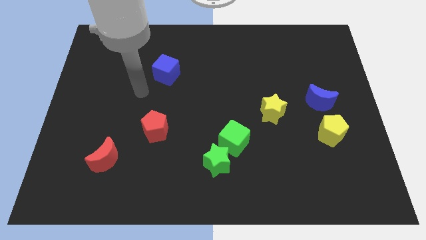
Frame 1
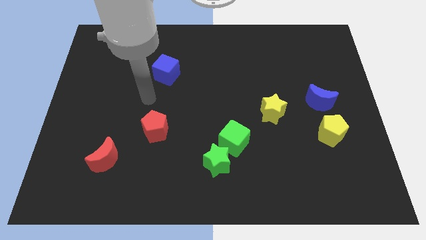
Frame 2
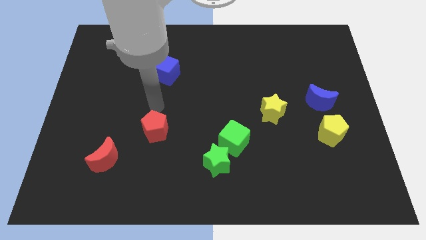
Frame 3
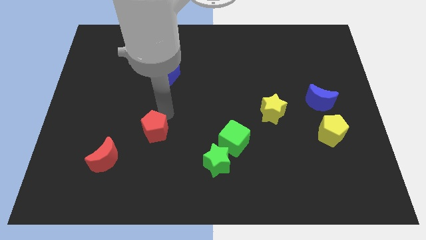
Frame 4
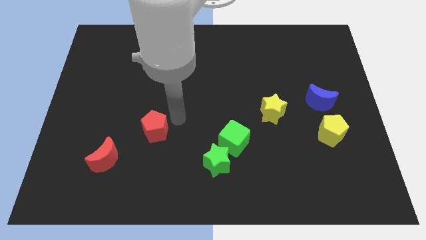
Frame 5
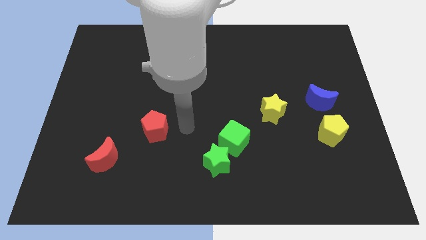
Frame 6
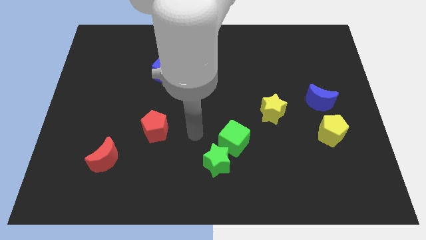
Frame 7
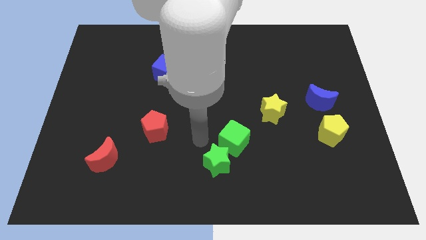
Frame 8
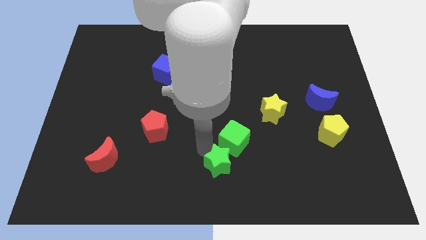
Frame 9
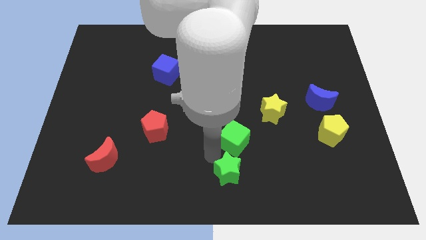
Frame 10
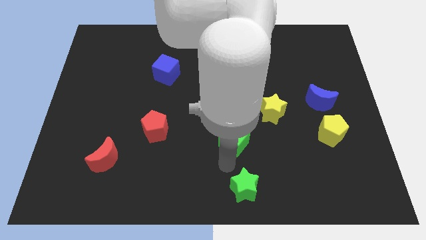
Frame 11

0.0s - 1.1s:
pull the green cube apart from the green star

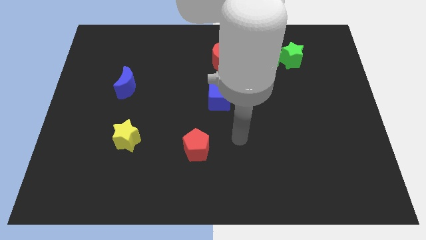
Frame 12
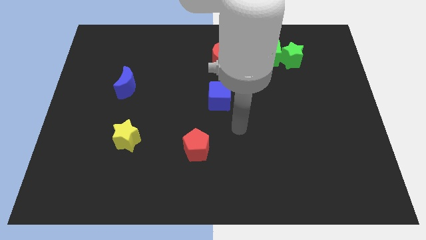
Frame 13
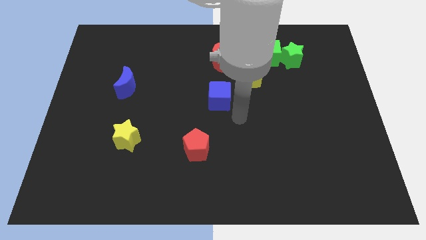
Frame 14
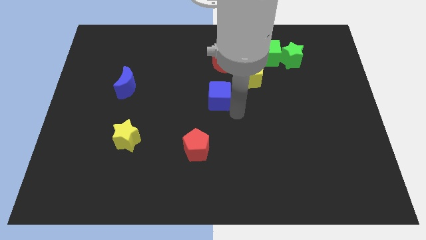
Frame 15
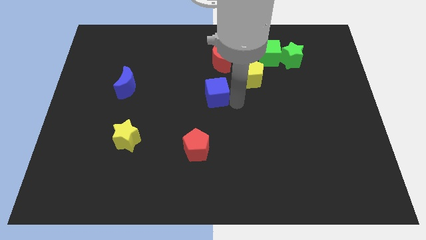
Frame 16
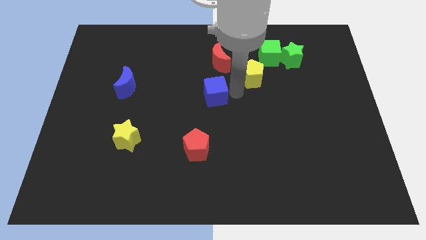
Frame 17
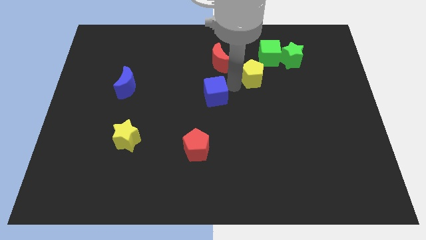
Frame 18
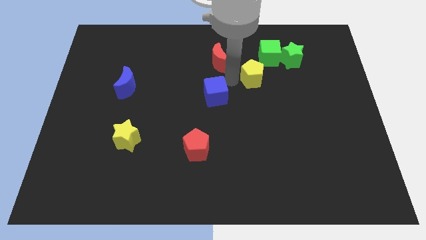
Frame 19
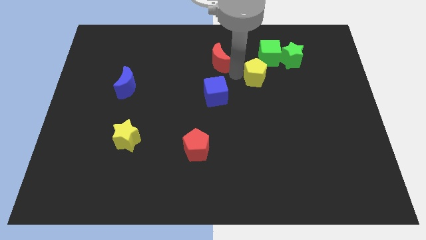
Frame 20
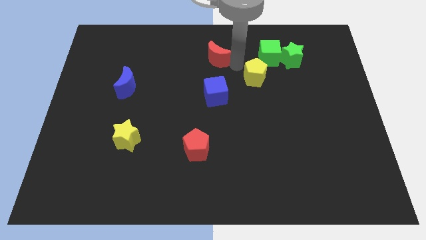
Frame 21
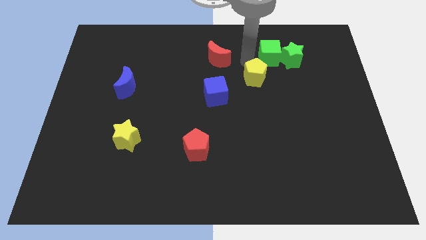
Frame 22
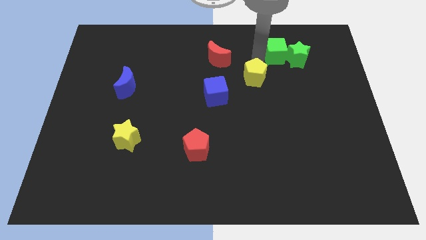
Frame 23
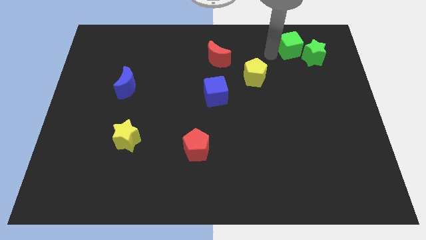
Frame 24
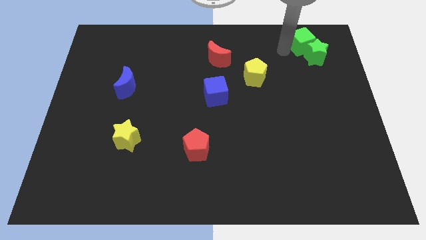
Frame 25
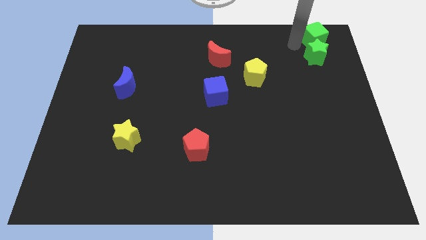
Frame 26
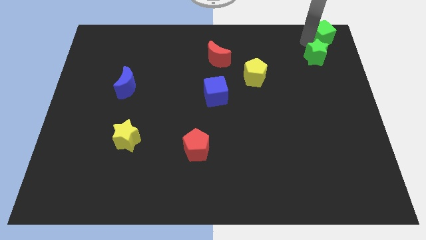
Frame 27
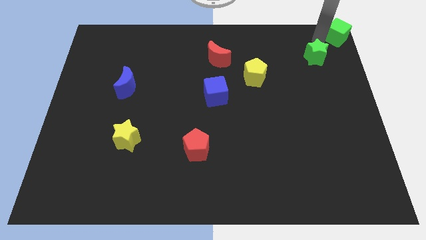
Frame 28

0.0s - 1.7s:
move the green star away from the green cube

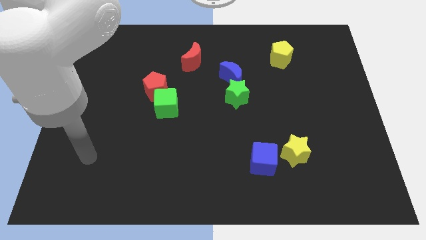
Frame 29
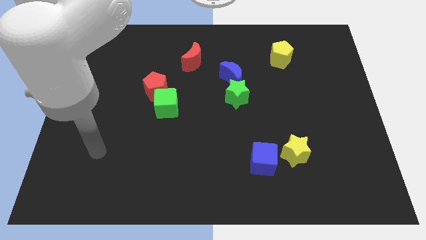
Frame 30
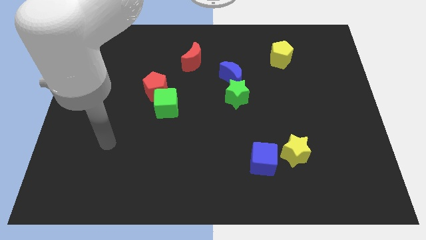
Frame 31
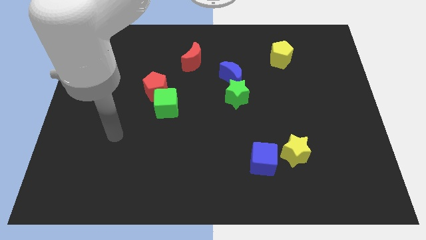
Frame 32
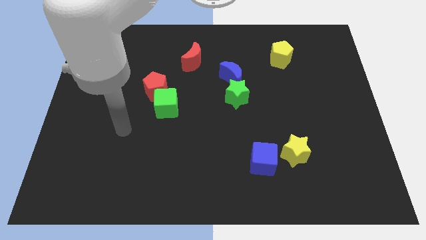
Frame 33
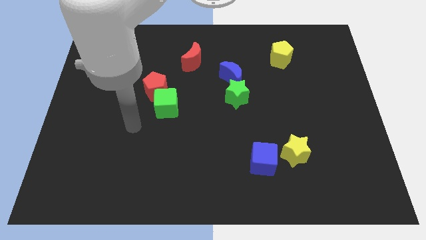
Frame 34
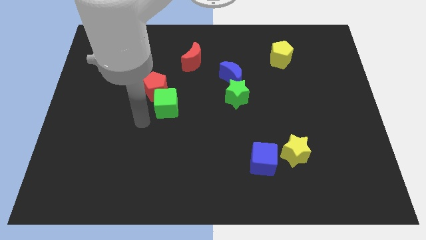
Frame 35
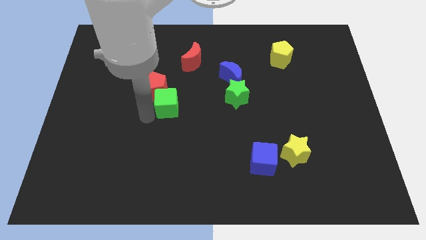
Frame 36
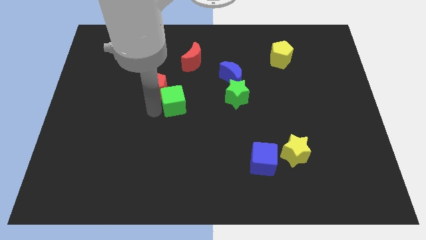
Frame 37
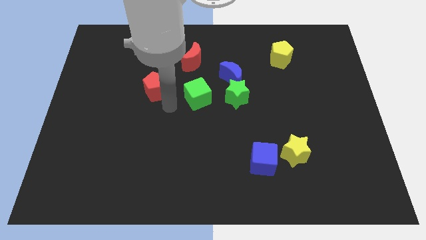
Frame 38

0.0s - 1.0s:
separate the red pentagon from the green cube

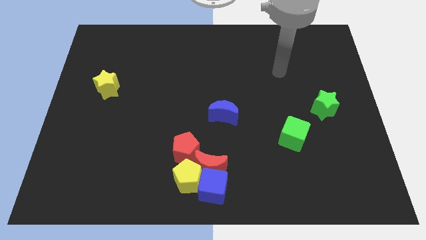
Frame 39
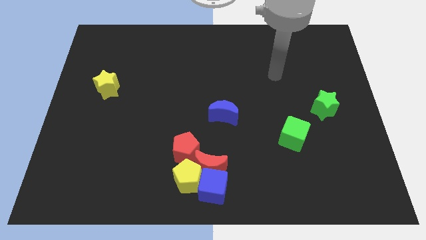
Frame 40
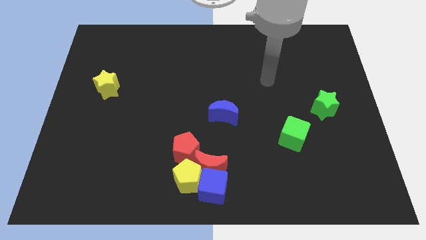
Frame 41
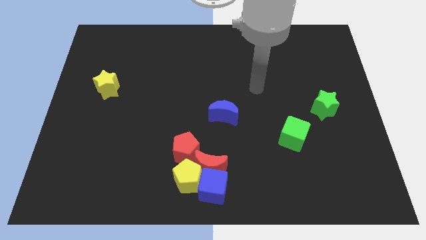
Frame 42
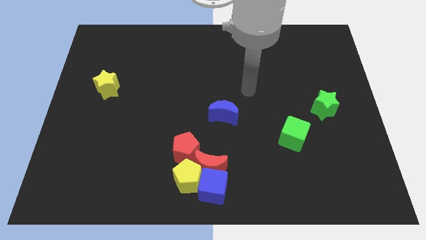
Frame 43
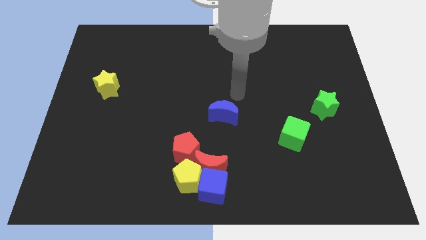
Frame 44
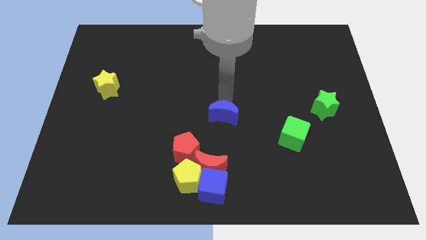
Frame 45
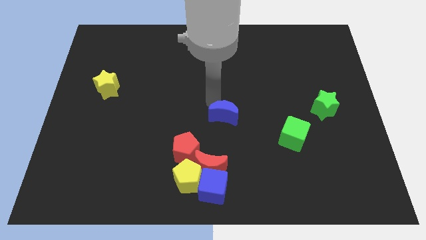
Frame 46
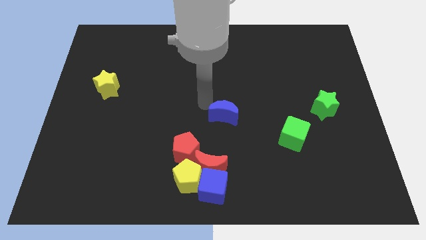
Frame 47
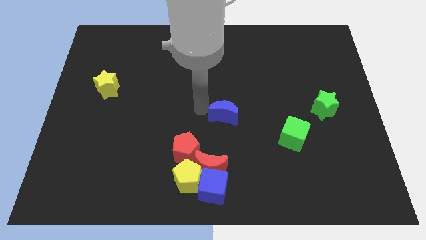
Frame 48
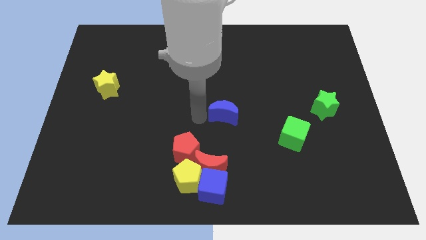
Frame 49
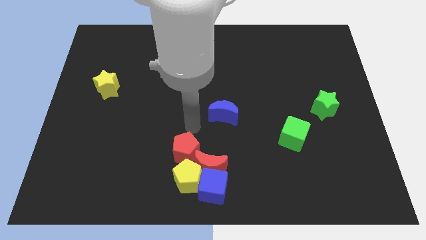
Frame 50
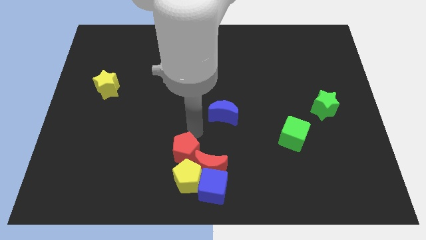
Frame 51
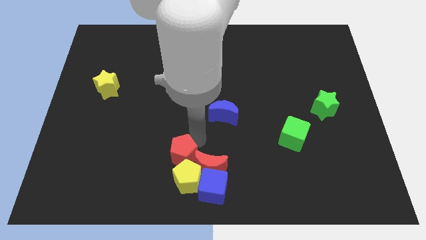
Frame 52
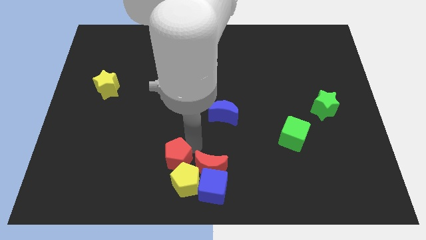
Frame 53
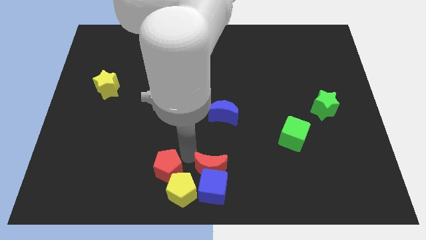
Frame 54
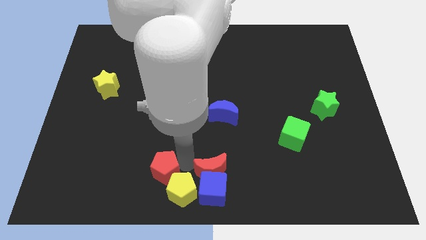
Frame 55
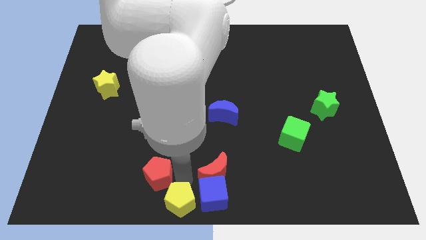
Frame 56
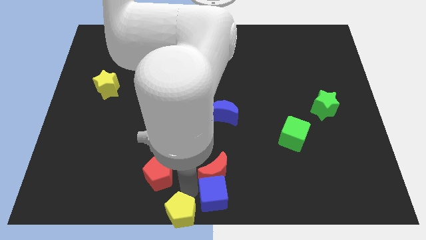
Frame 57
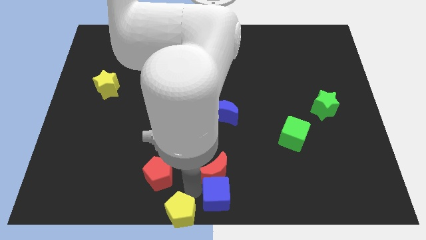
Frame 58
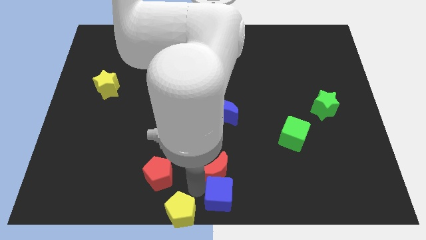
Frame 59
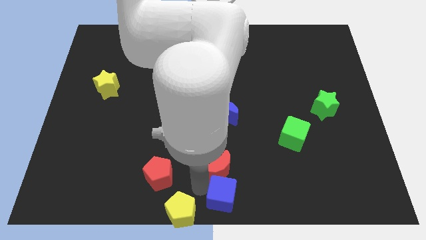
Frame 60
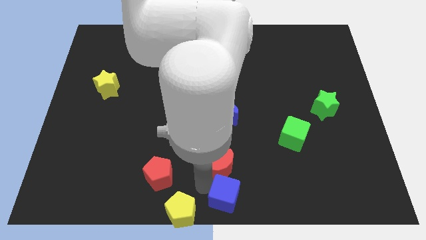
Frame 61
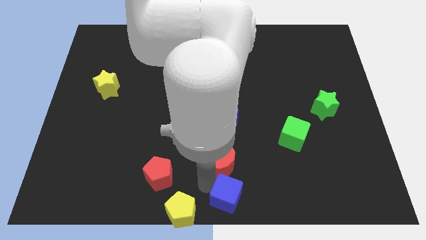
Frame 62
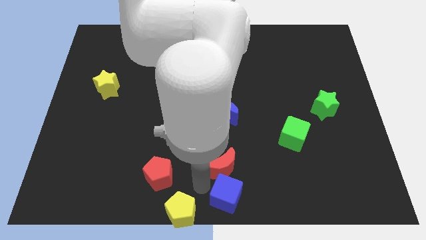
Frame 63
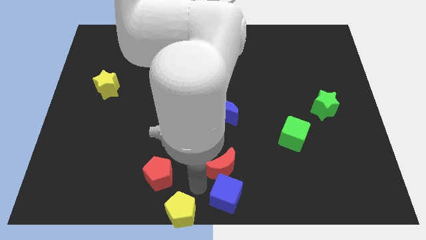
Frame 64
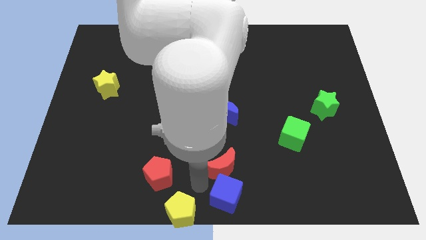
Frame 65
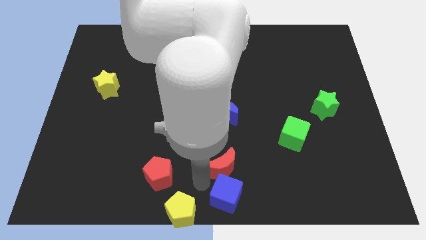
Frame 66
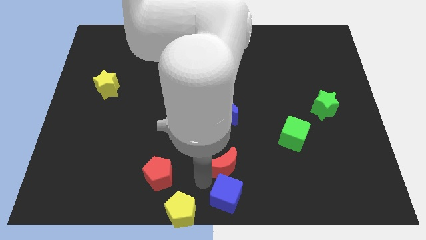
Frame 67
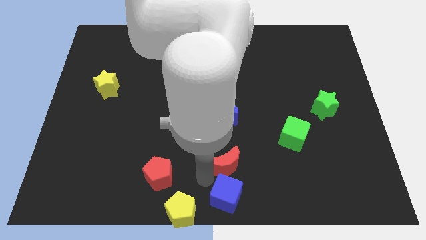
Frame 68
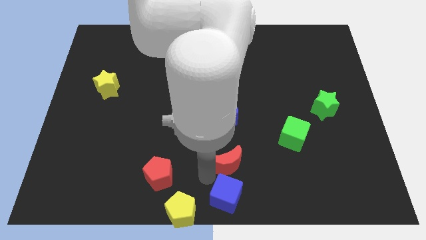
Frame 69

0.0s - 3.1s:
pull the red moon apart from the clump

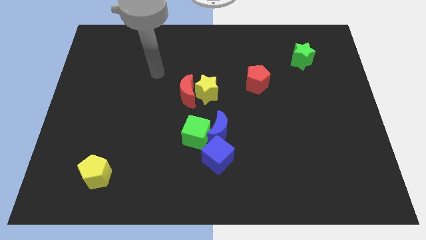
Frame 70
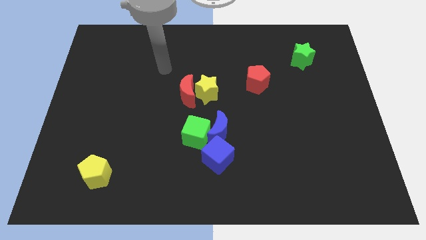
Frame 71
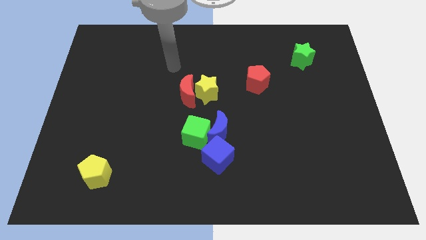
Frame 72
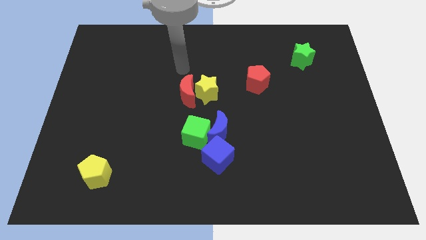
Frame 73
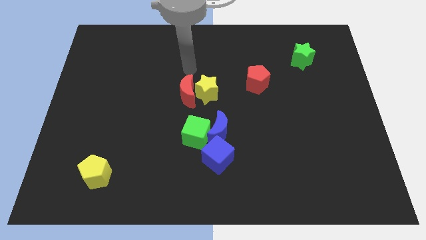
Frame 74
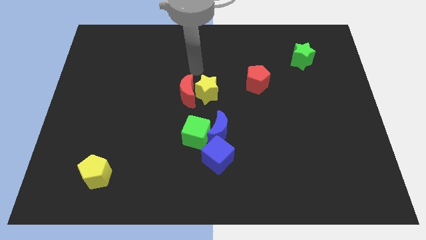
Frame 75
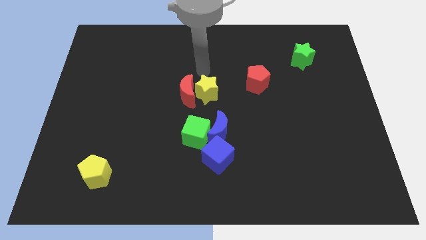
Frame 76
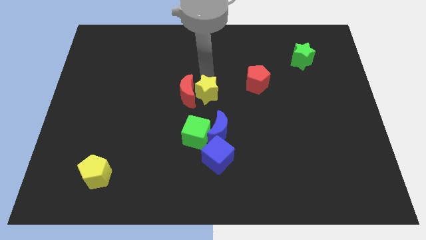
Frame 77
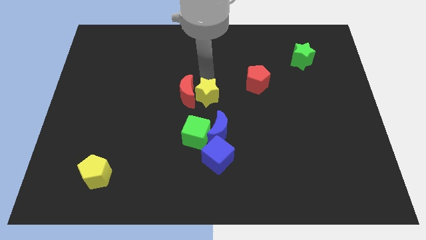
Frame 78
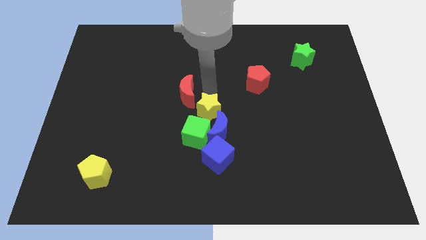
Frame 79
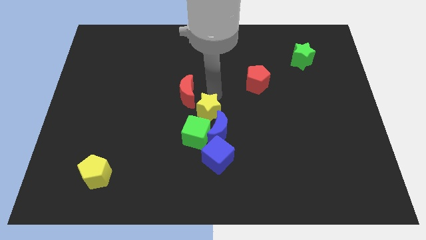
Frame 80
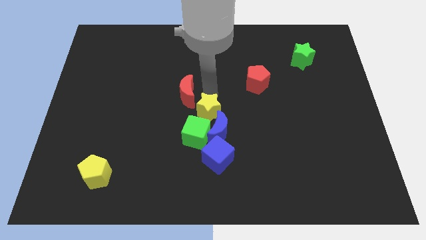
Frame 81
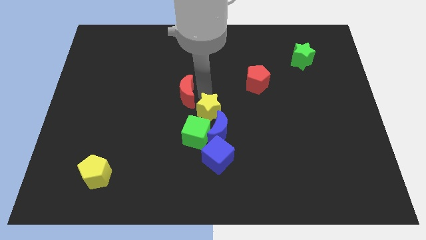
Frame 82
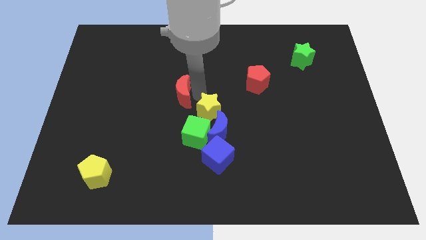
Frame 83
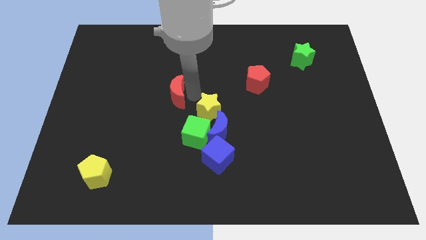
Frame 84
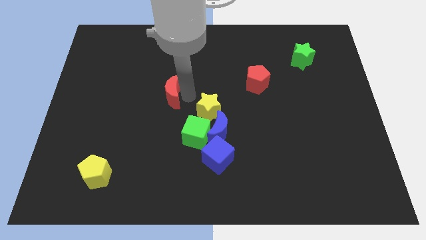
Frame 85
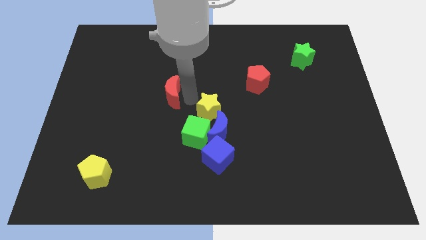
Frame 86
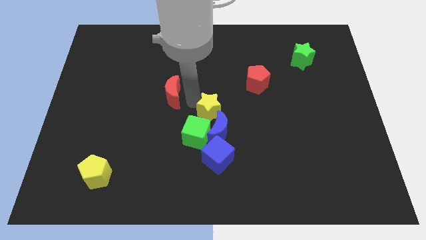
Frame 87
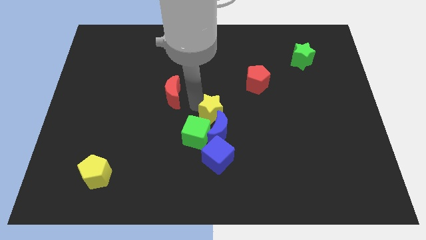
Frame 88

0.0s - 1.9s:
move the red moon away from the yellow star

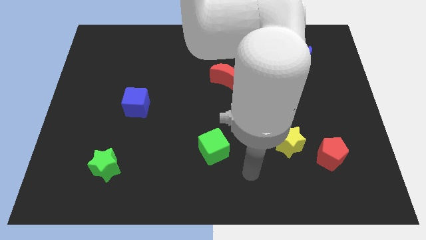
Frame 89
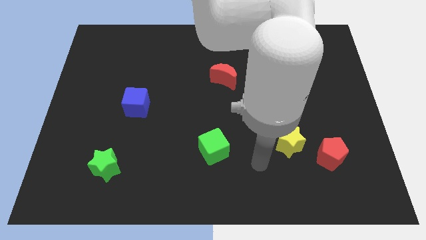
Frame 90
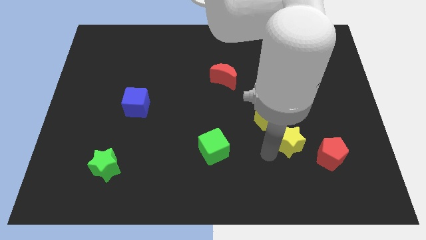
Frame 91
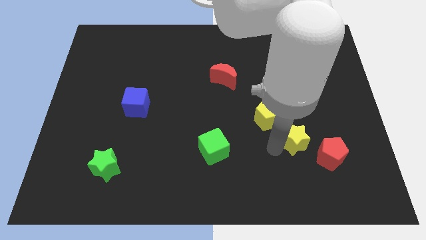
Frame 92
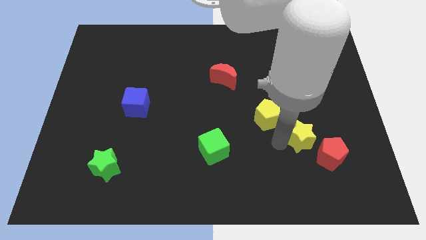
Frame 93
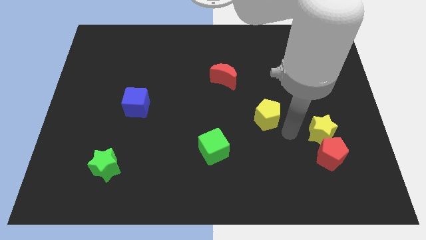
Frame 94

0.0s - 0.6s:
separate the yellow pentagon from the yellow star
